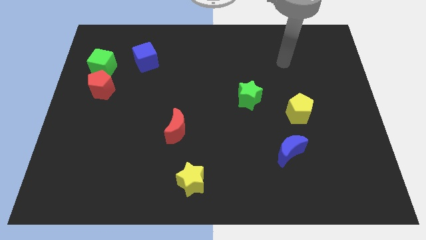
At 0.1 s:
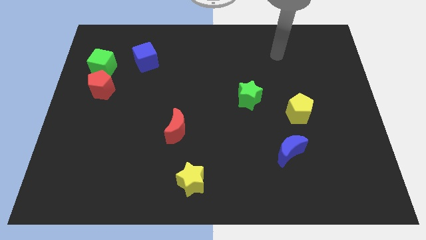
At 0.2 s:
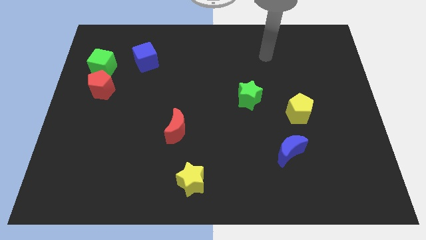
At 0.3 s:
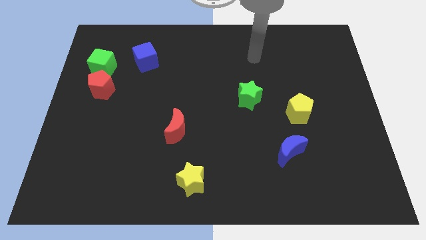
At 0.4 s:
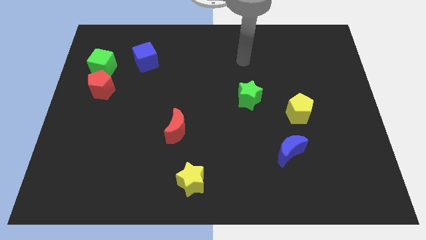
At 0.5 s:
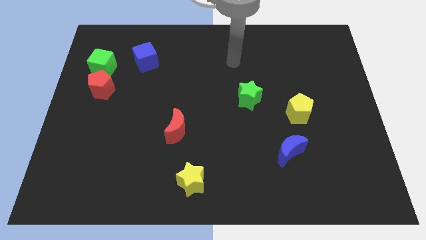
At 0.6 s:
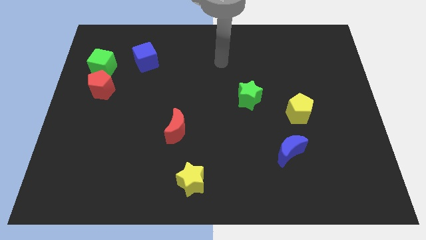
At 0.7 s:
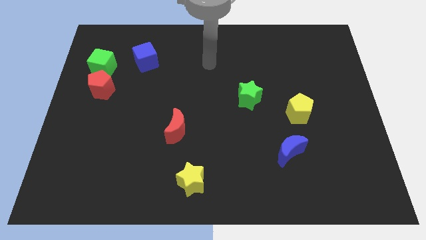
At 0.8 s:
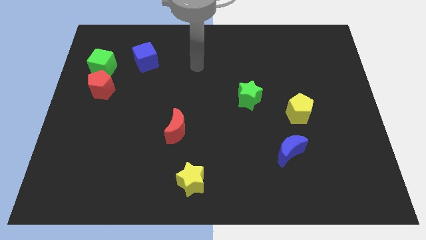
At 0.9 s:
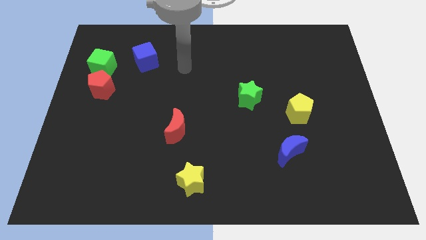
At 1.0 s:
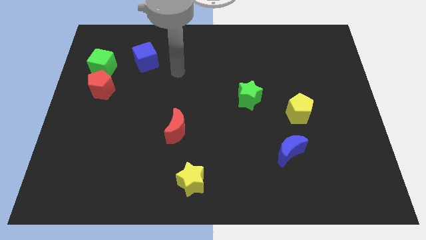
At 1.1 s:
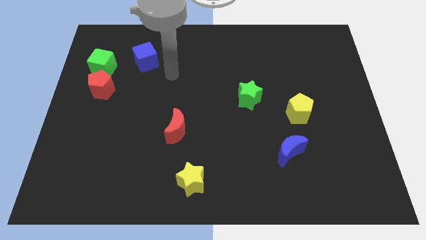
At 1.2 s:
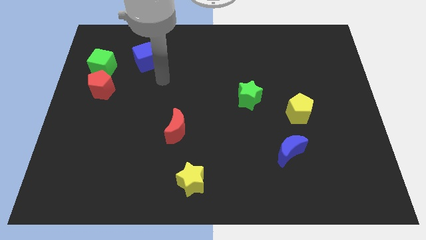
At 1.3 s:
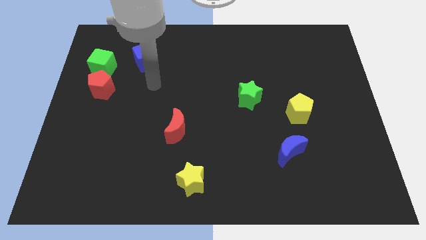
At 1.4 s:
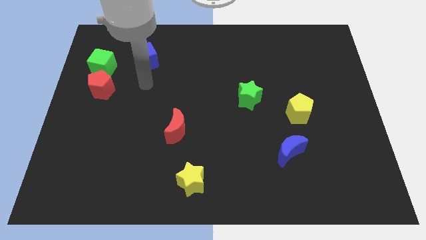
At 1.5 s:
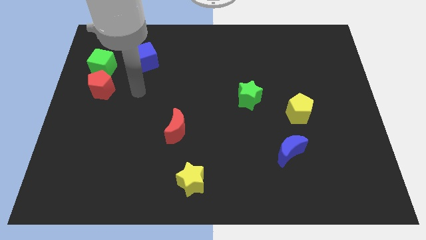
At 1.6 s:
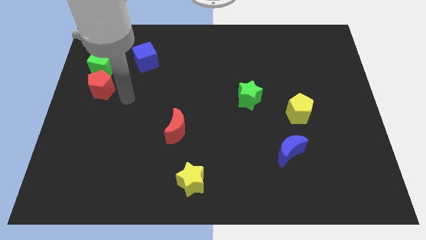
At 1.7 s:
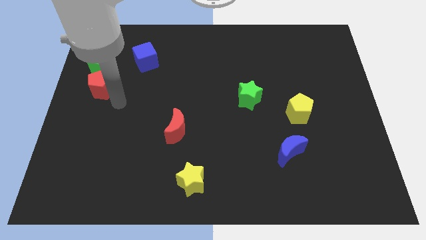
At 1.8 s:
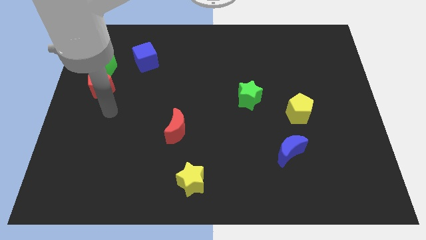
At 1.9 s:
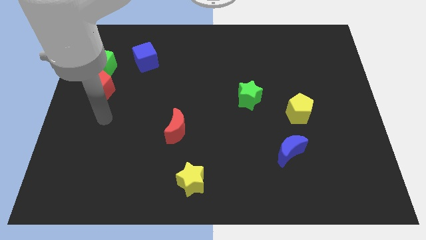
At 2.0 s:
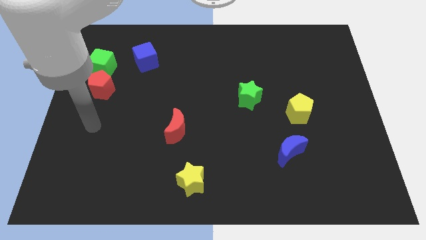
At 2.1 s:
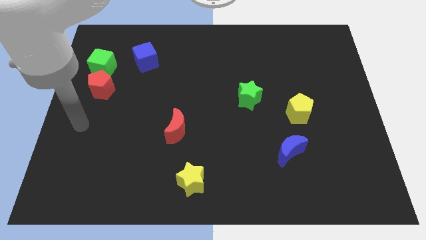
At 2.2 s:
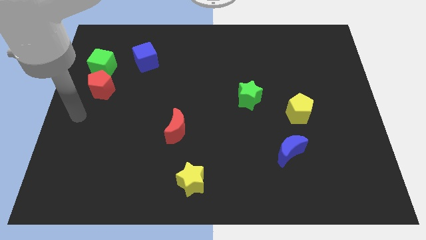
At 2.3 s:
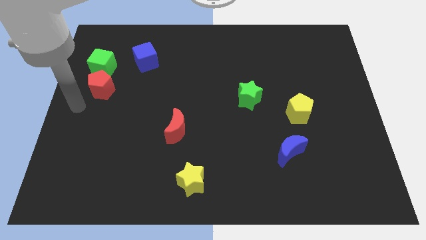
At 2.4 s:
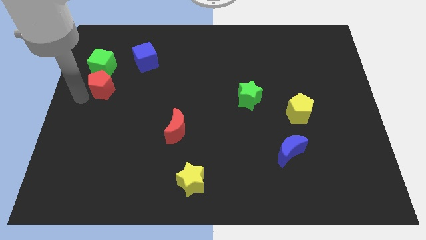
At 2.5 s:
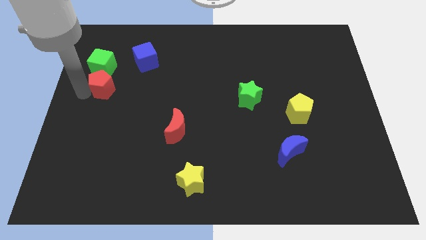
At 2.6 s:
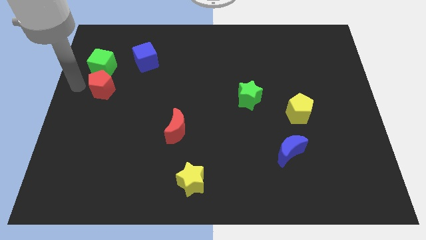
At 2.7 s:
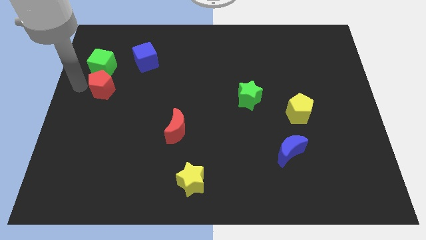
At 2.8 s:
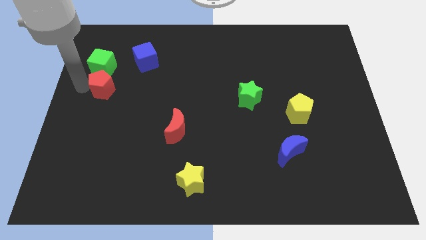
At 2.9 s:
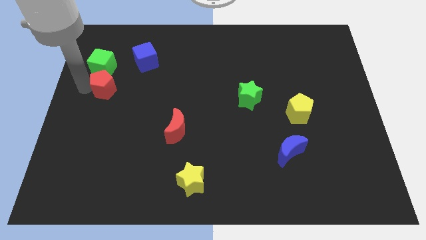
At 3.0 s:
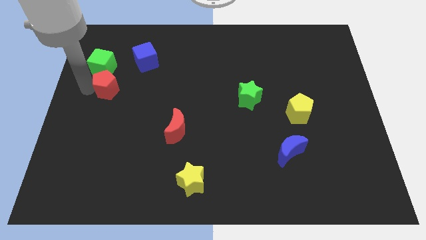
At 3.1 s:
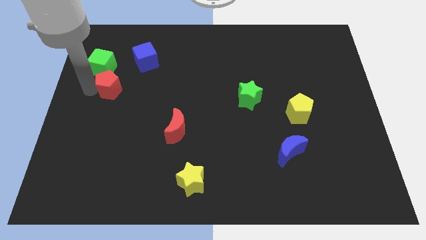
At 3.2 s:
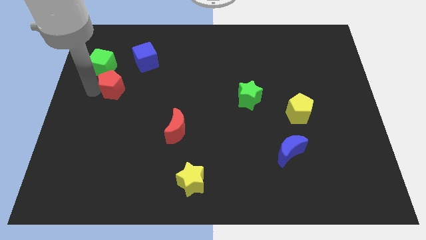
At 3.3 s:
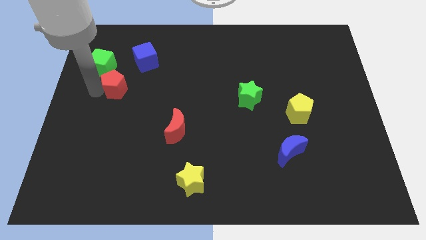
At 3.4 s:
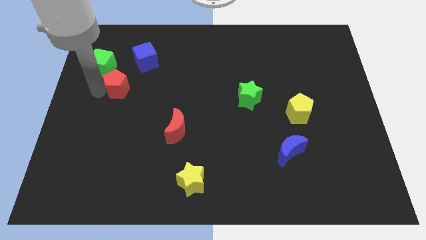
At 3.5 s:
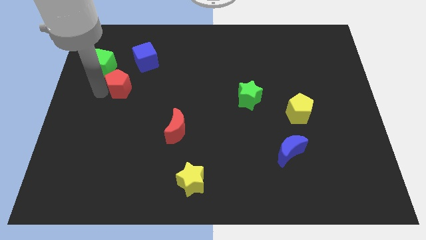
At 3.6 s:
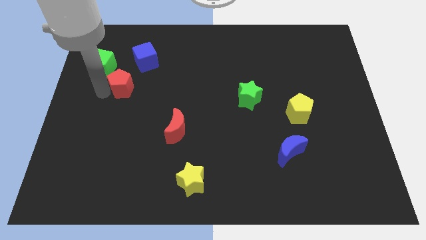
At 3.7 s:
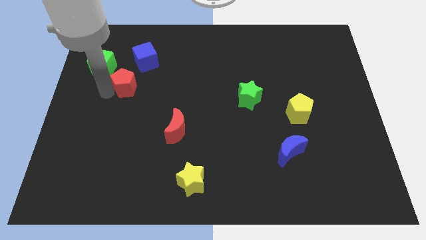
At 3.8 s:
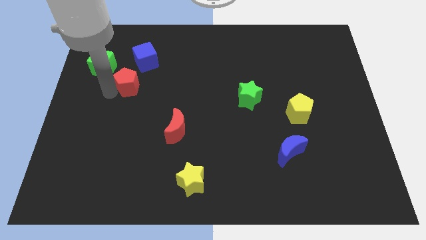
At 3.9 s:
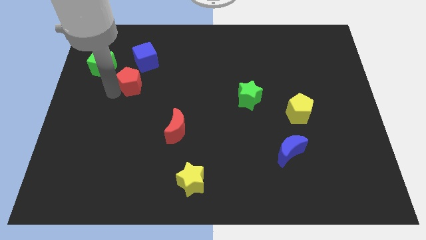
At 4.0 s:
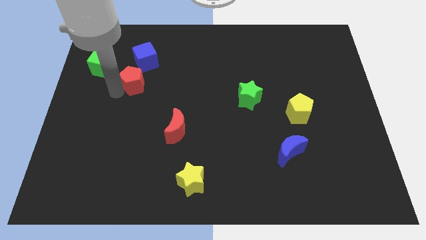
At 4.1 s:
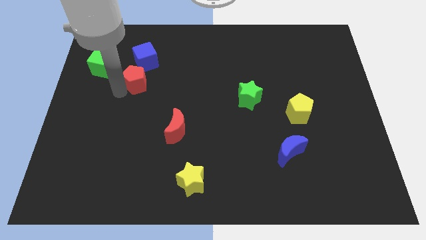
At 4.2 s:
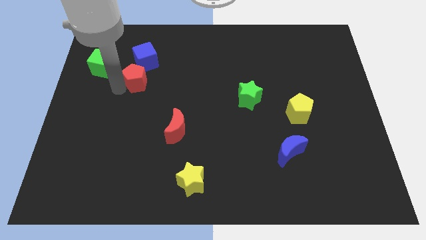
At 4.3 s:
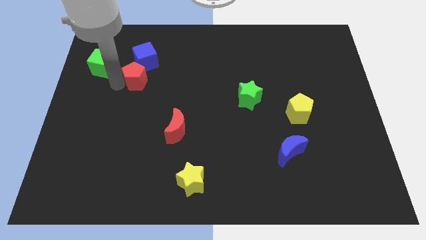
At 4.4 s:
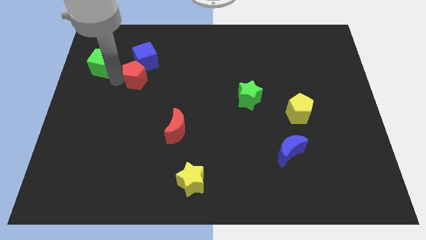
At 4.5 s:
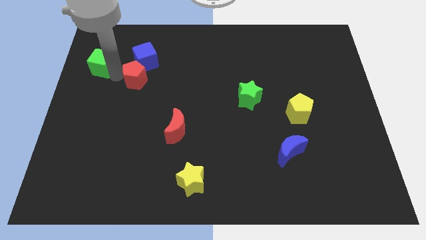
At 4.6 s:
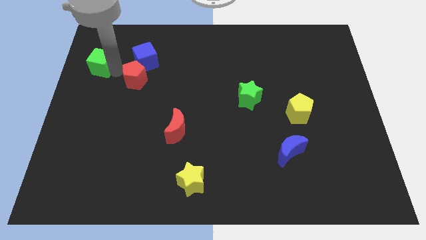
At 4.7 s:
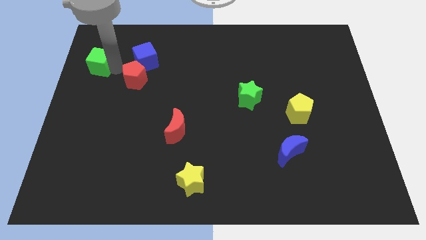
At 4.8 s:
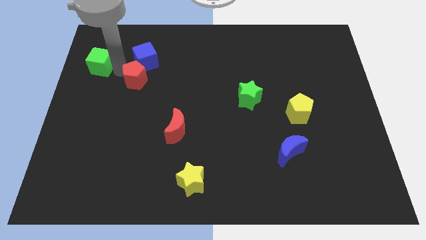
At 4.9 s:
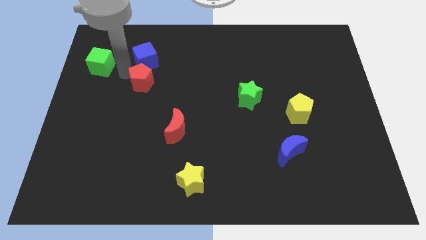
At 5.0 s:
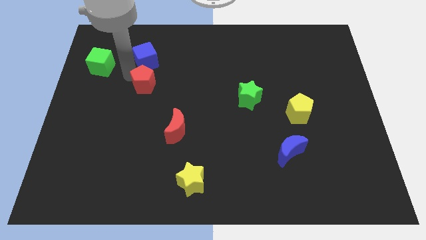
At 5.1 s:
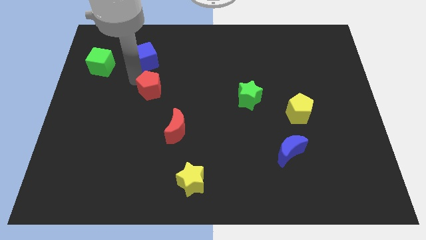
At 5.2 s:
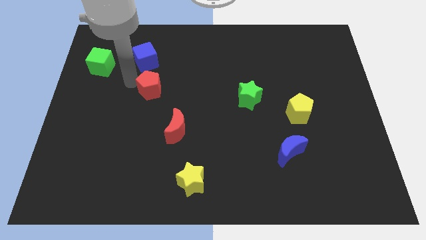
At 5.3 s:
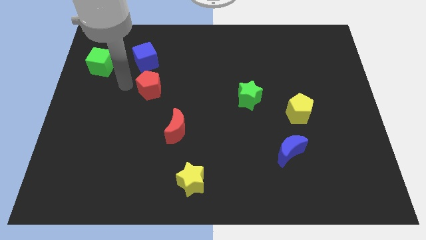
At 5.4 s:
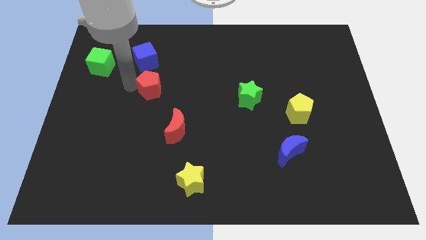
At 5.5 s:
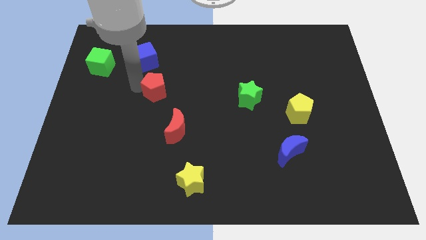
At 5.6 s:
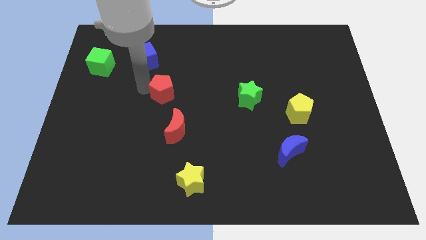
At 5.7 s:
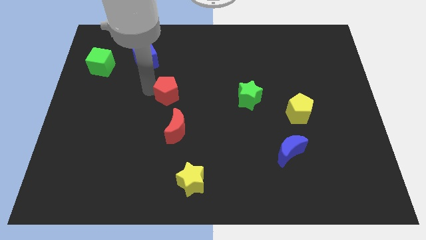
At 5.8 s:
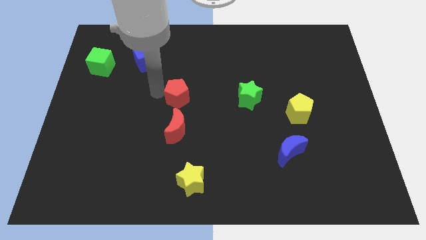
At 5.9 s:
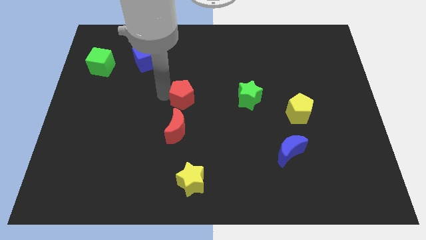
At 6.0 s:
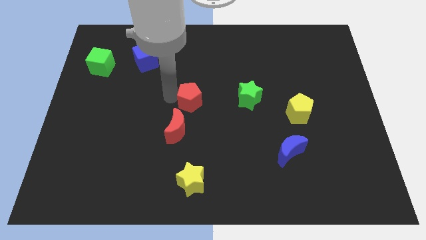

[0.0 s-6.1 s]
move the red pentagon to the right

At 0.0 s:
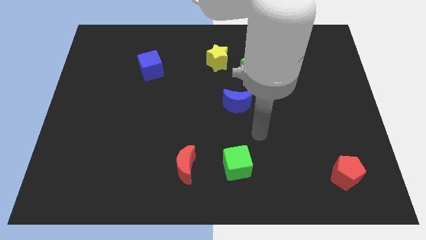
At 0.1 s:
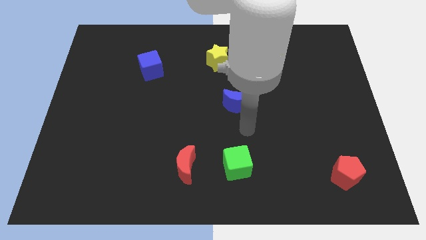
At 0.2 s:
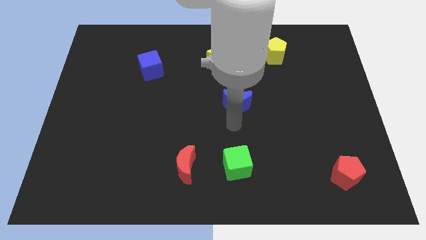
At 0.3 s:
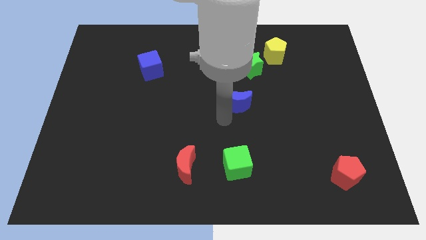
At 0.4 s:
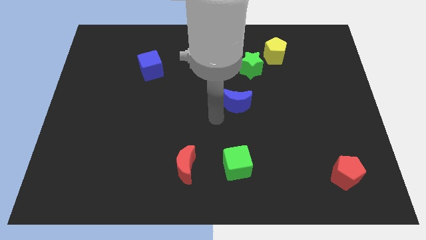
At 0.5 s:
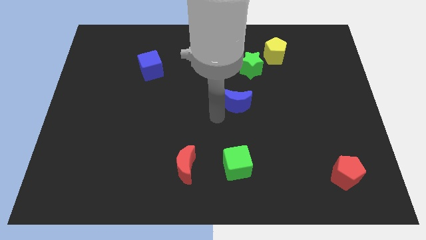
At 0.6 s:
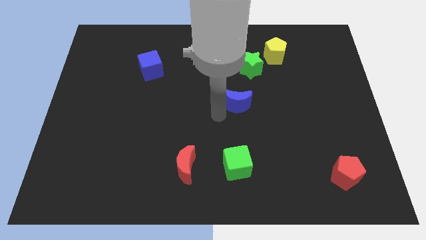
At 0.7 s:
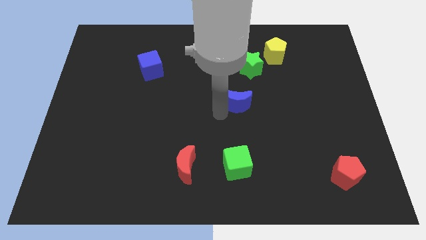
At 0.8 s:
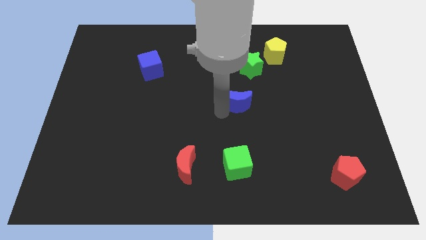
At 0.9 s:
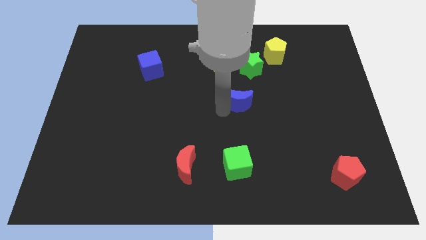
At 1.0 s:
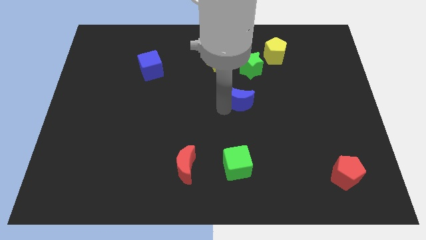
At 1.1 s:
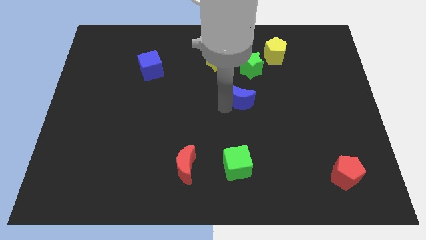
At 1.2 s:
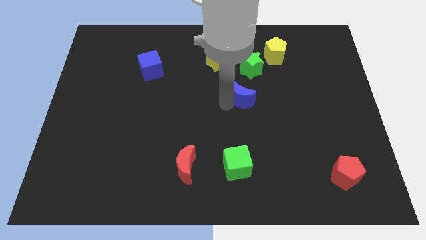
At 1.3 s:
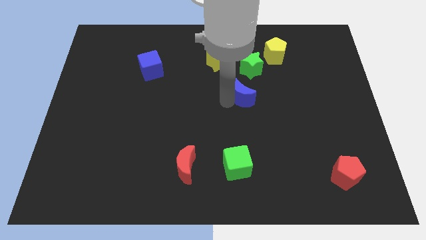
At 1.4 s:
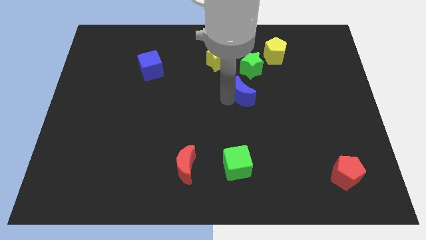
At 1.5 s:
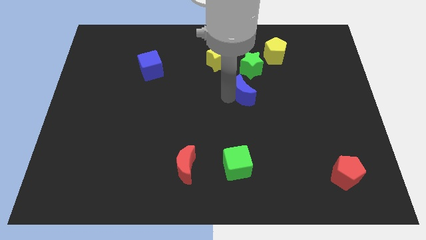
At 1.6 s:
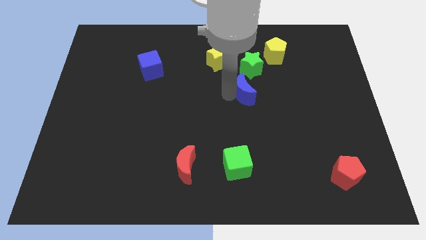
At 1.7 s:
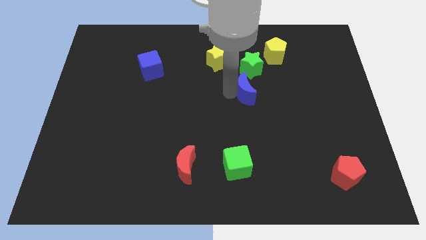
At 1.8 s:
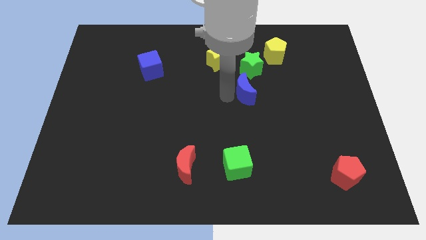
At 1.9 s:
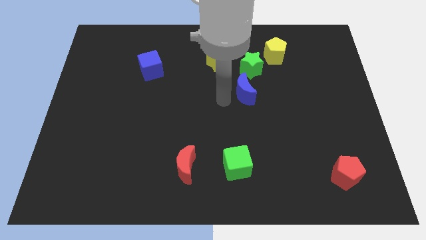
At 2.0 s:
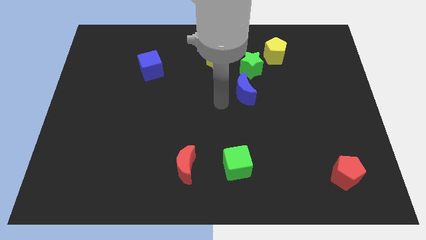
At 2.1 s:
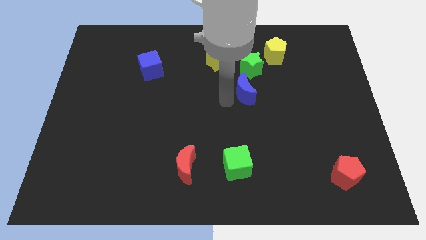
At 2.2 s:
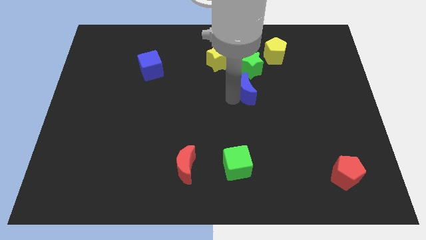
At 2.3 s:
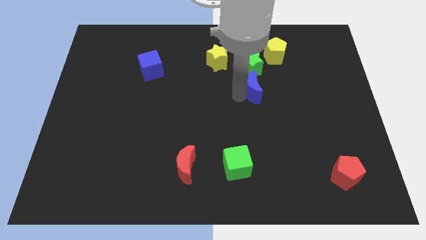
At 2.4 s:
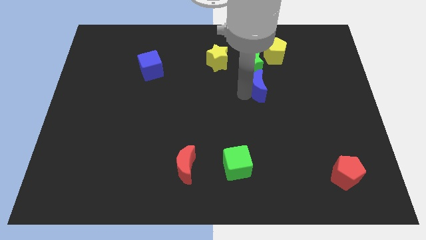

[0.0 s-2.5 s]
move the blue moon a little bit diagonally upwards and right
